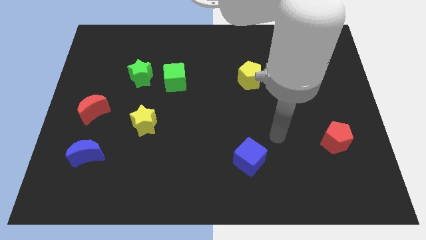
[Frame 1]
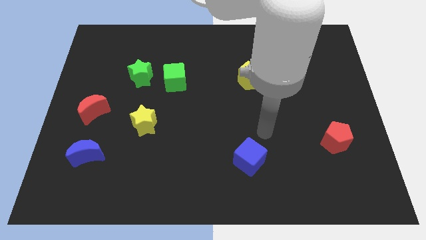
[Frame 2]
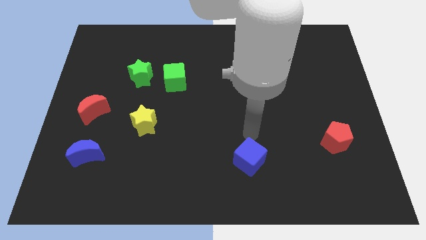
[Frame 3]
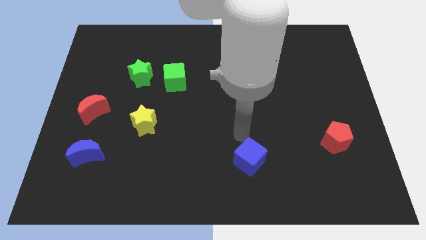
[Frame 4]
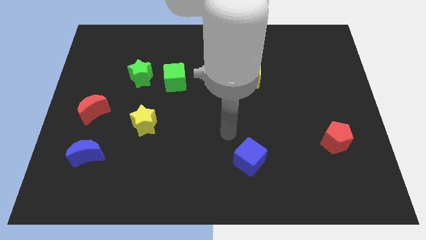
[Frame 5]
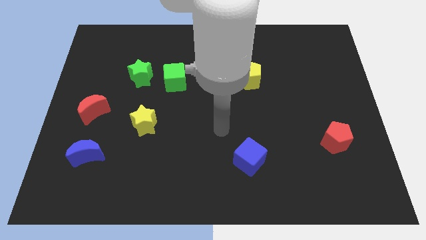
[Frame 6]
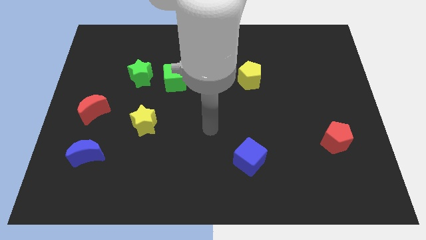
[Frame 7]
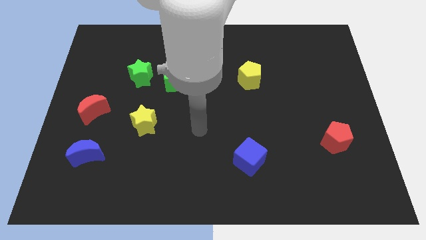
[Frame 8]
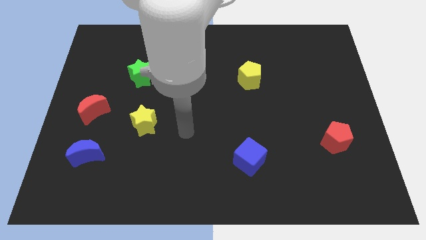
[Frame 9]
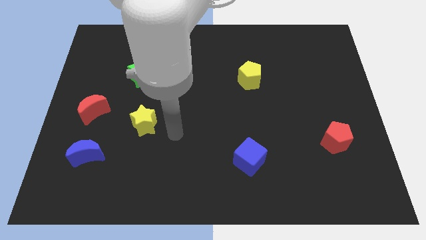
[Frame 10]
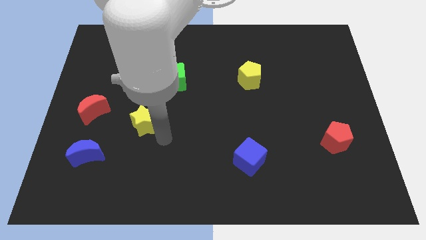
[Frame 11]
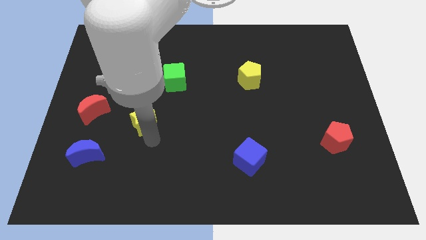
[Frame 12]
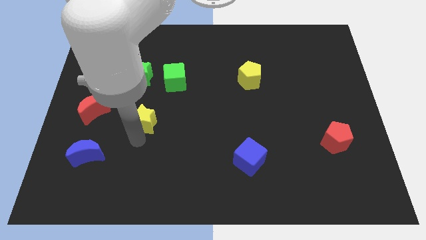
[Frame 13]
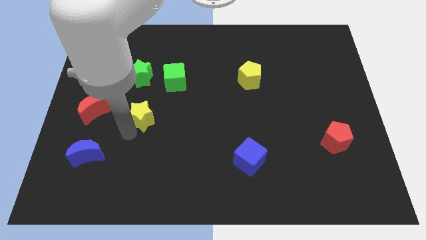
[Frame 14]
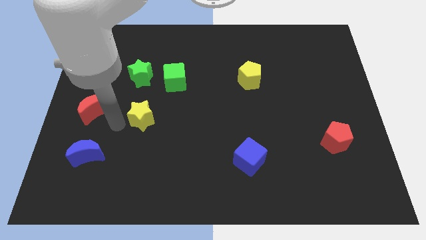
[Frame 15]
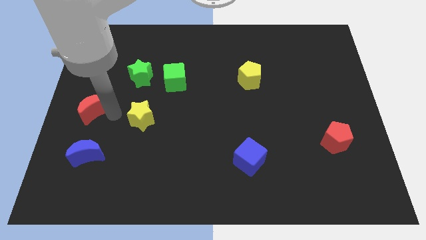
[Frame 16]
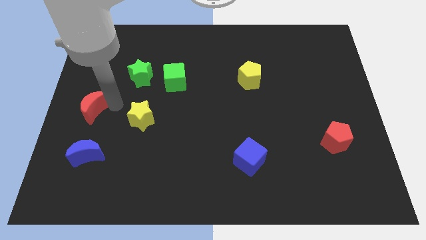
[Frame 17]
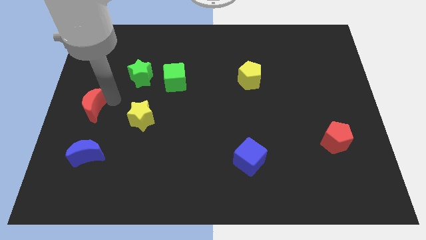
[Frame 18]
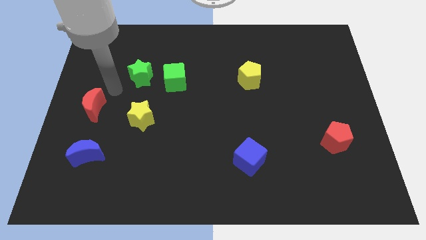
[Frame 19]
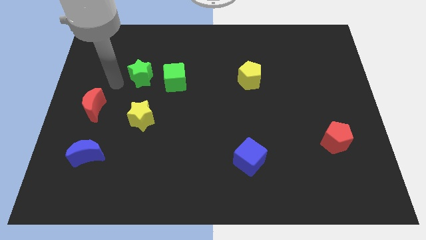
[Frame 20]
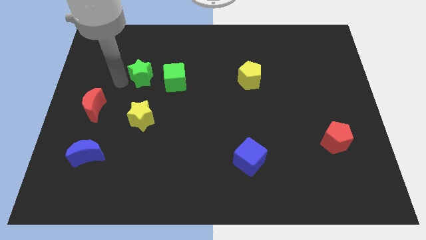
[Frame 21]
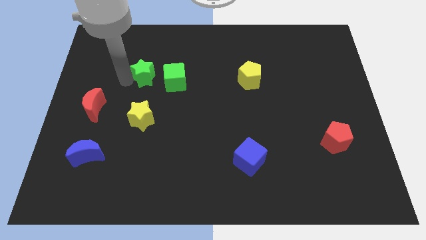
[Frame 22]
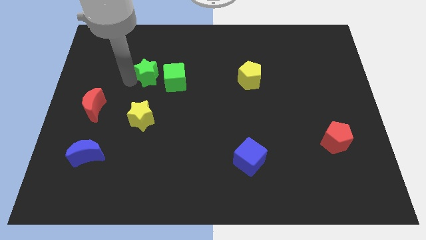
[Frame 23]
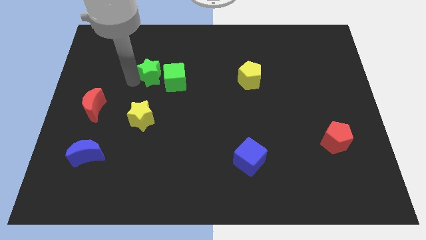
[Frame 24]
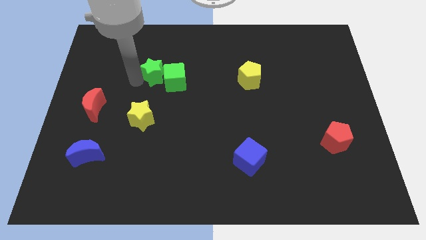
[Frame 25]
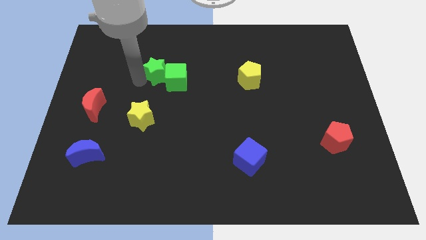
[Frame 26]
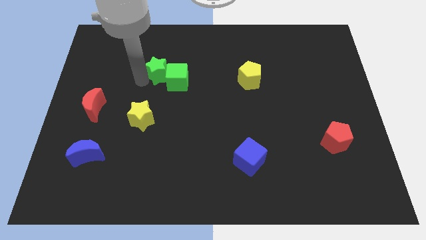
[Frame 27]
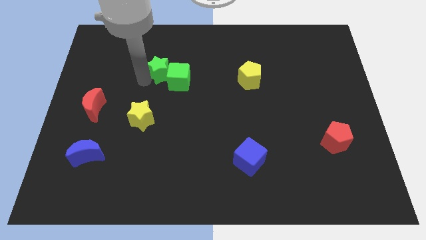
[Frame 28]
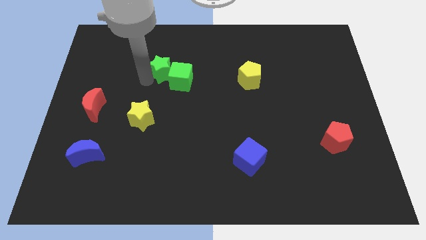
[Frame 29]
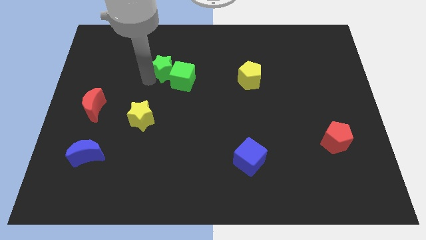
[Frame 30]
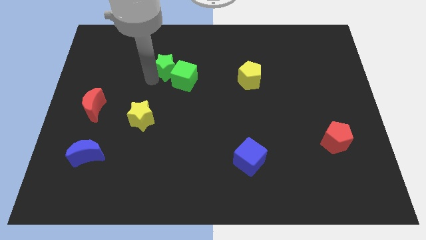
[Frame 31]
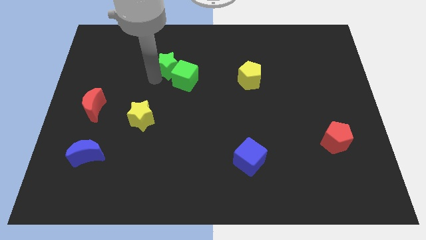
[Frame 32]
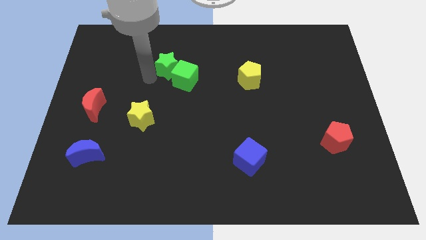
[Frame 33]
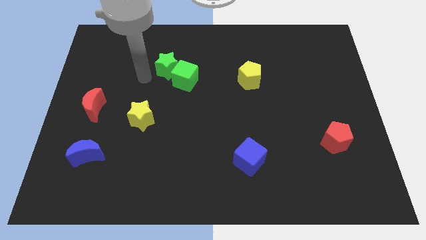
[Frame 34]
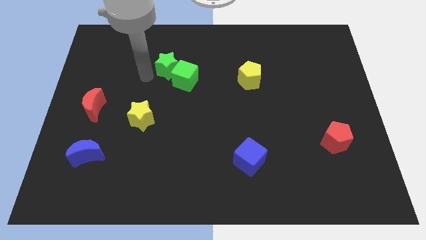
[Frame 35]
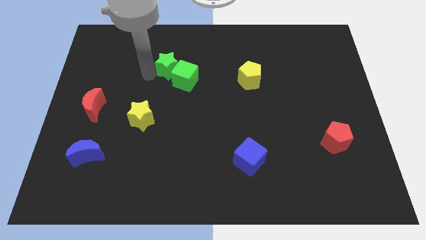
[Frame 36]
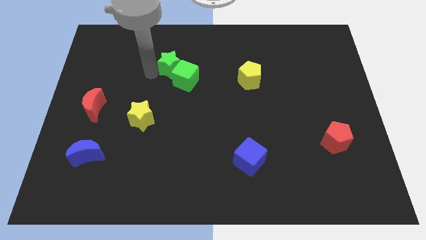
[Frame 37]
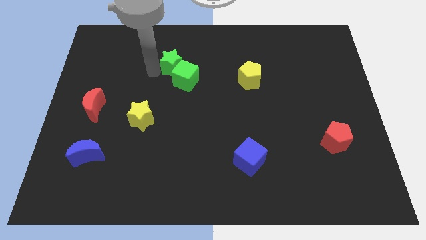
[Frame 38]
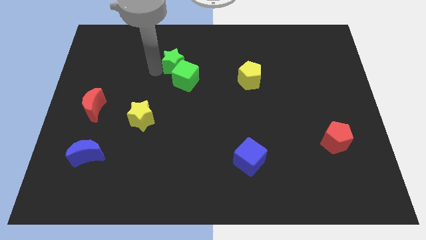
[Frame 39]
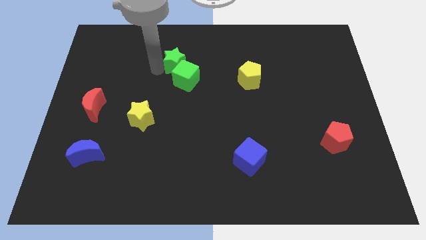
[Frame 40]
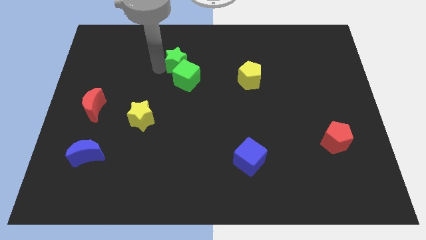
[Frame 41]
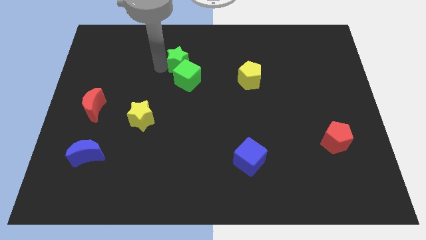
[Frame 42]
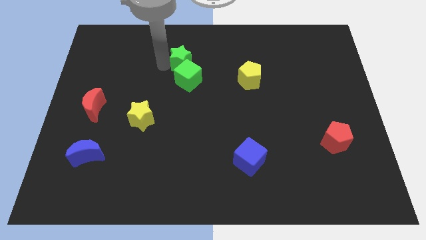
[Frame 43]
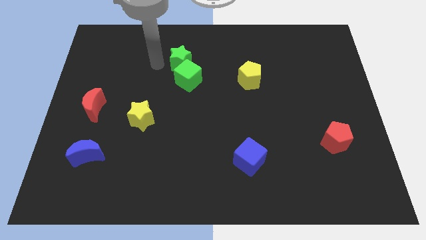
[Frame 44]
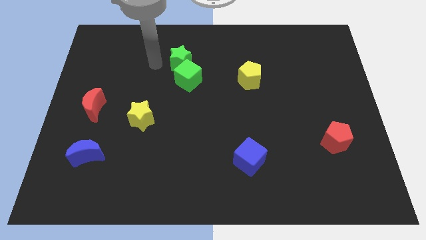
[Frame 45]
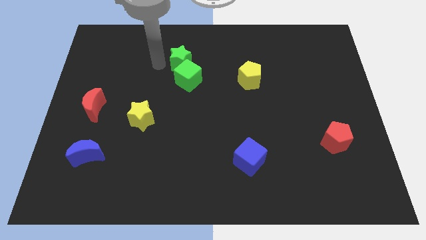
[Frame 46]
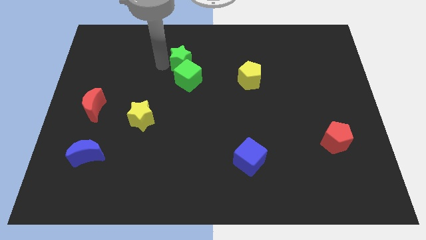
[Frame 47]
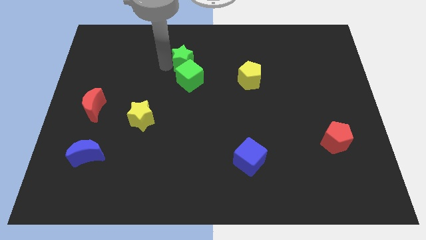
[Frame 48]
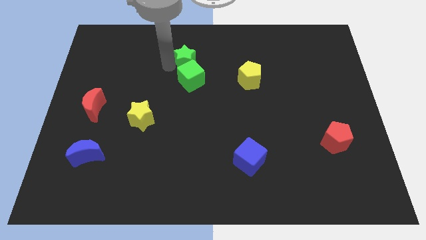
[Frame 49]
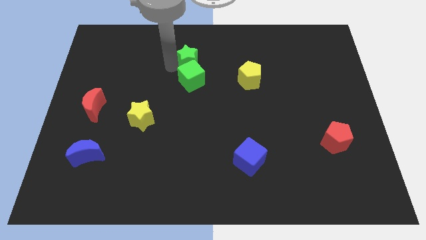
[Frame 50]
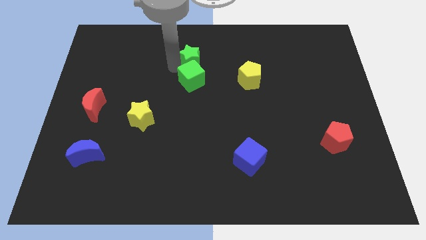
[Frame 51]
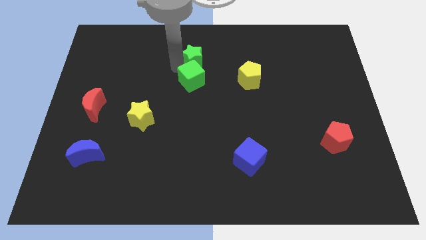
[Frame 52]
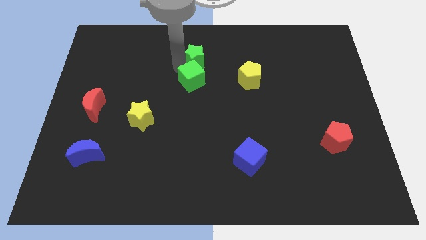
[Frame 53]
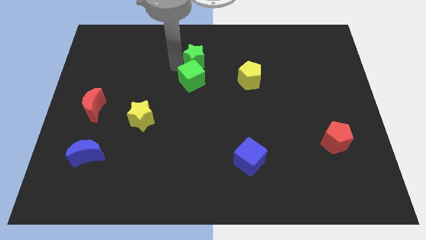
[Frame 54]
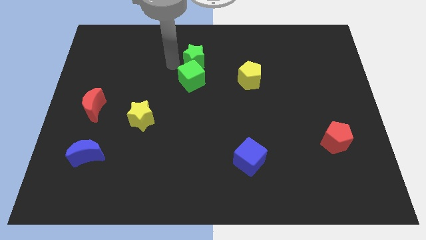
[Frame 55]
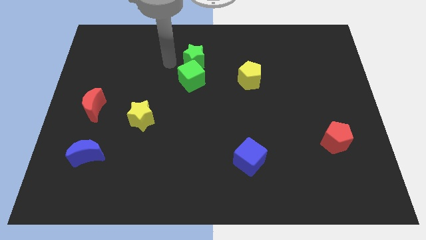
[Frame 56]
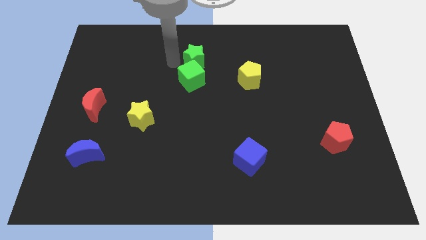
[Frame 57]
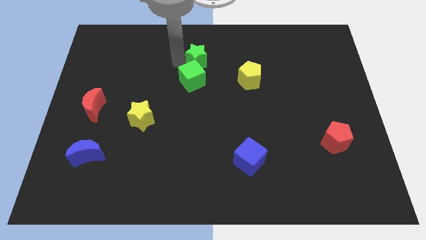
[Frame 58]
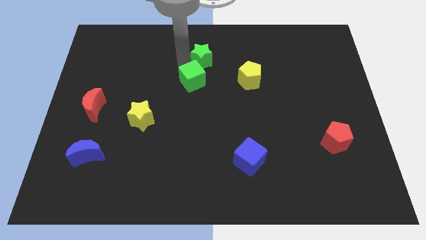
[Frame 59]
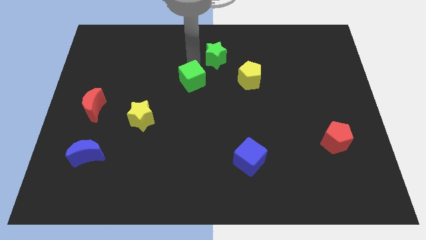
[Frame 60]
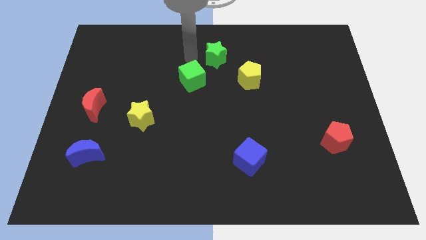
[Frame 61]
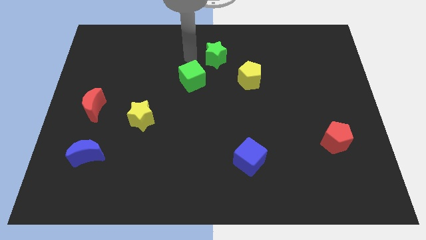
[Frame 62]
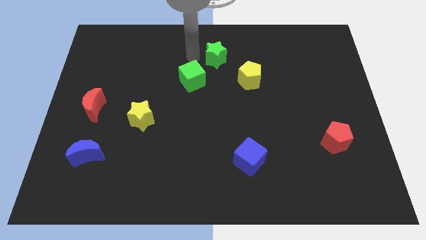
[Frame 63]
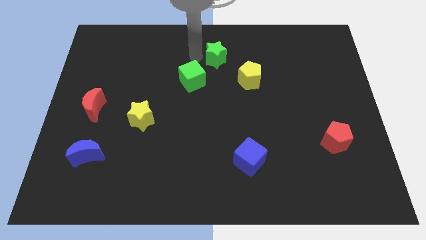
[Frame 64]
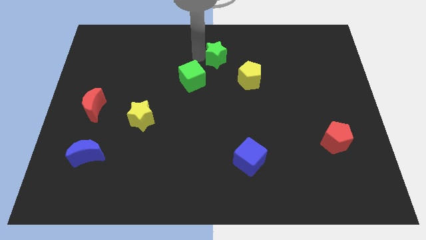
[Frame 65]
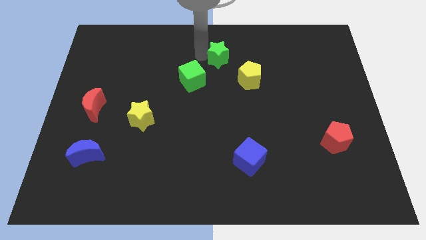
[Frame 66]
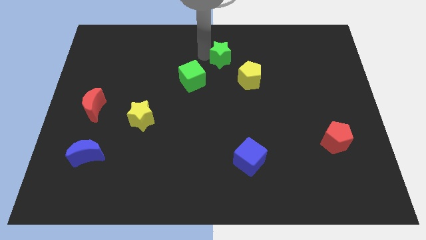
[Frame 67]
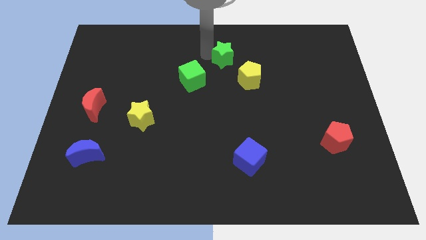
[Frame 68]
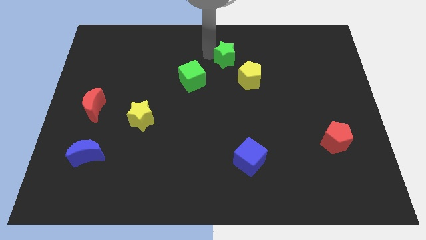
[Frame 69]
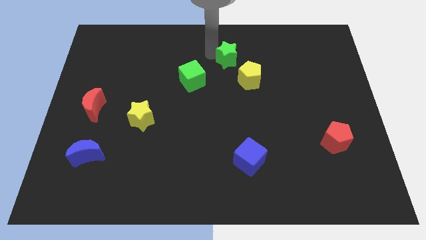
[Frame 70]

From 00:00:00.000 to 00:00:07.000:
slide the green star right

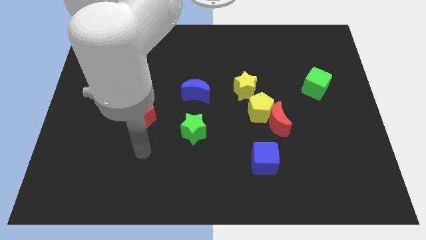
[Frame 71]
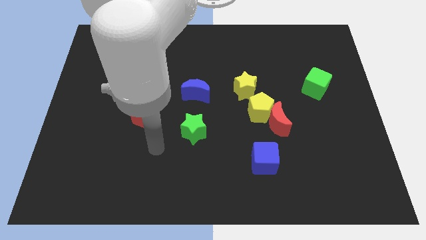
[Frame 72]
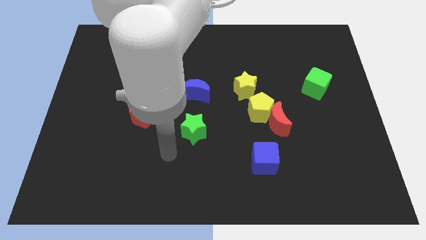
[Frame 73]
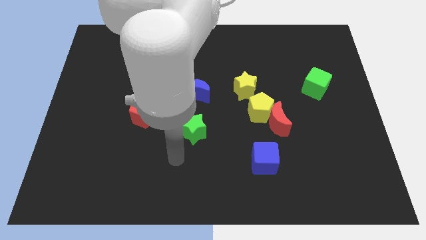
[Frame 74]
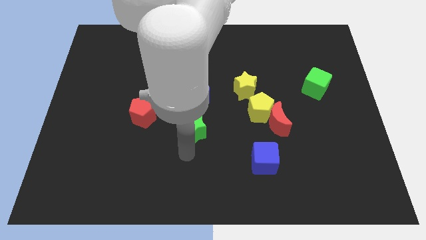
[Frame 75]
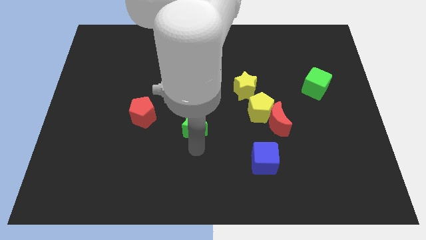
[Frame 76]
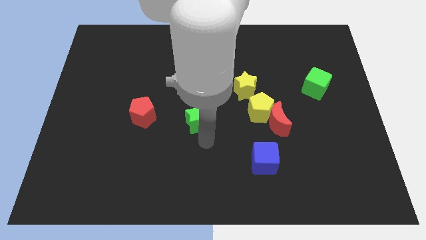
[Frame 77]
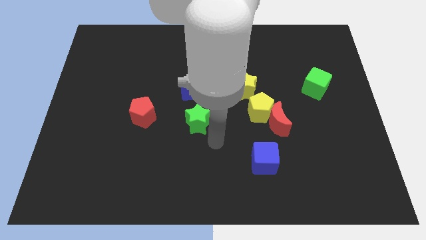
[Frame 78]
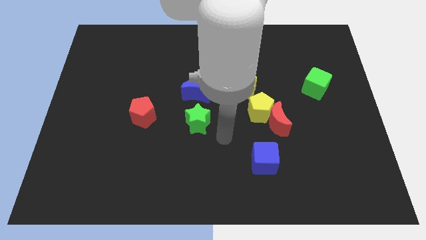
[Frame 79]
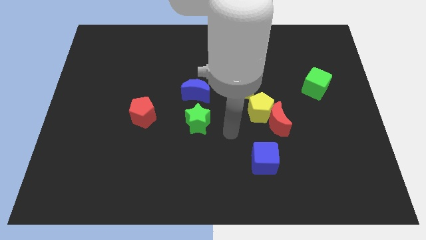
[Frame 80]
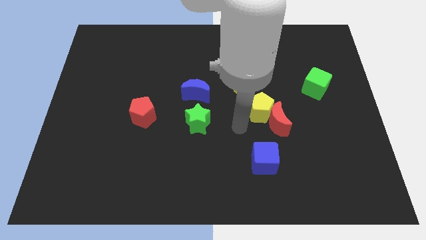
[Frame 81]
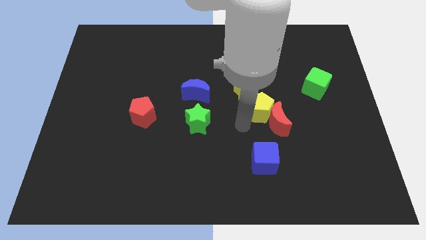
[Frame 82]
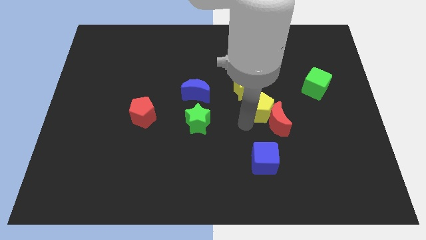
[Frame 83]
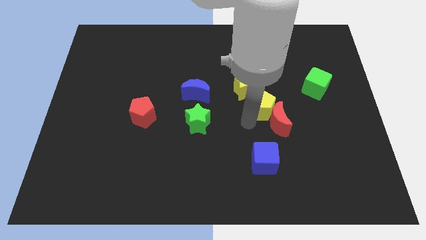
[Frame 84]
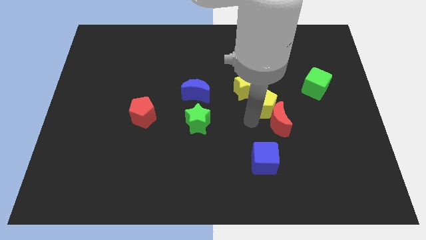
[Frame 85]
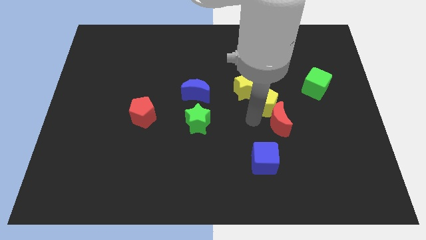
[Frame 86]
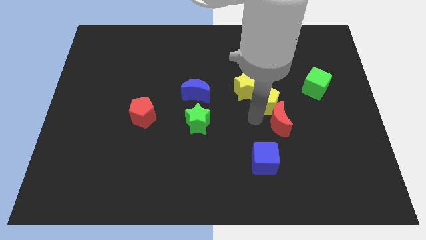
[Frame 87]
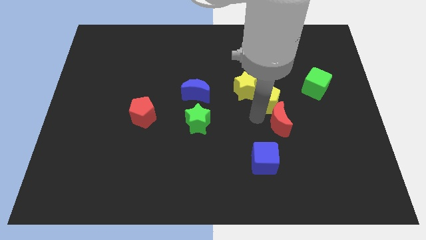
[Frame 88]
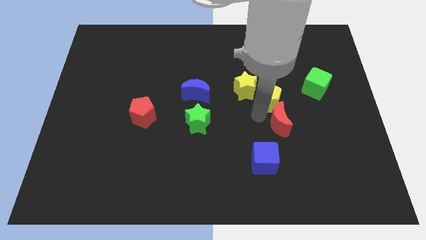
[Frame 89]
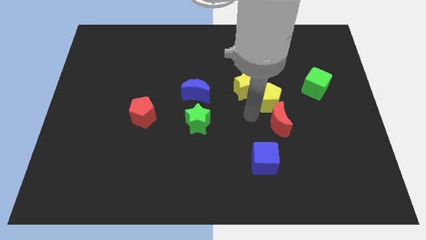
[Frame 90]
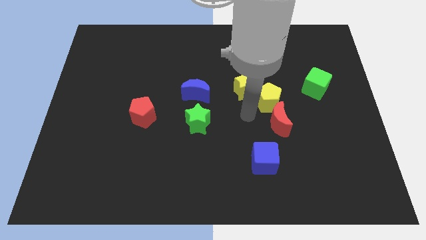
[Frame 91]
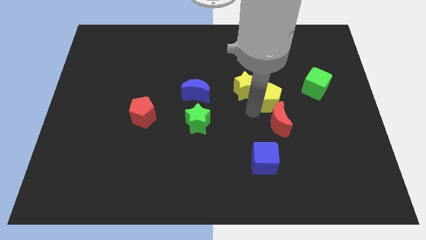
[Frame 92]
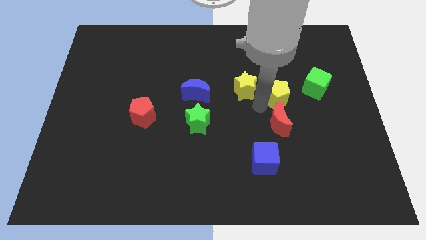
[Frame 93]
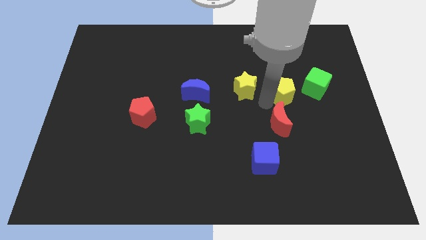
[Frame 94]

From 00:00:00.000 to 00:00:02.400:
slightly move the yellow pentagon upwards and right diagonally
